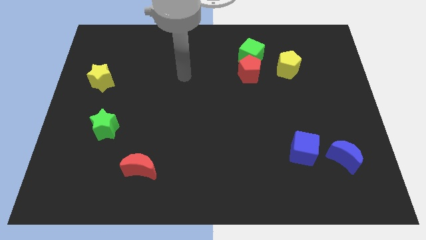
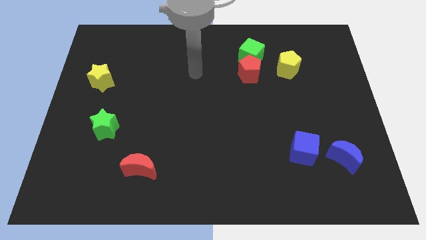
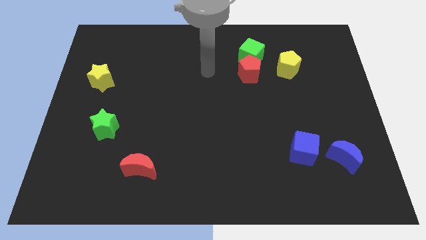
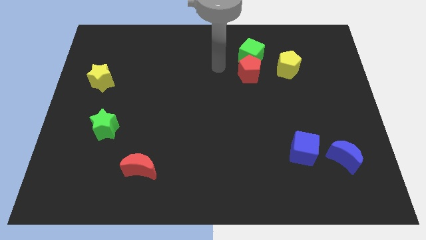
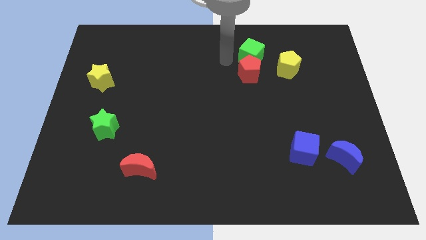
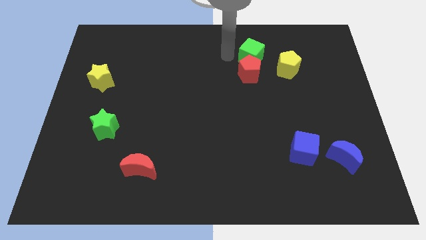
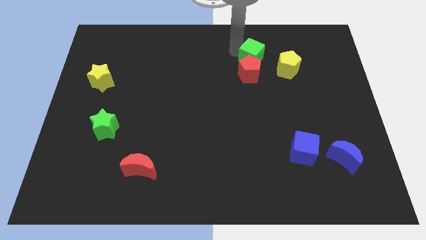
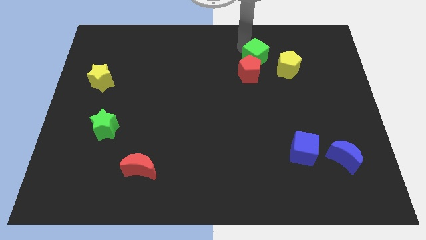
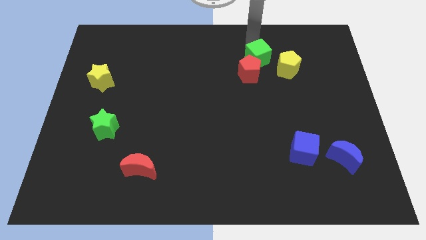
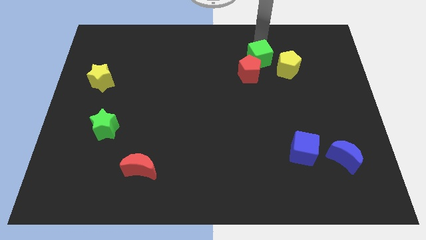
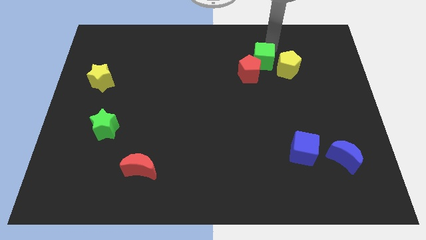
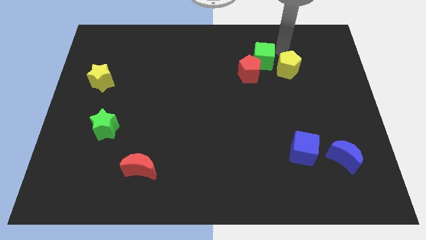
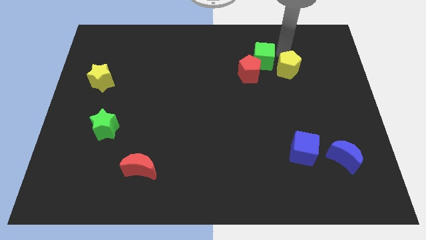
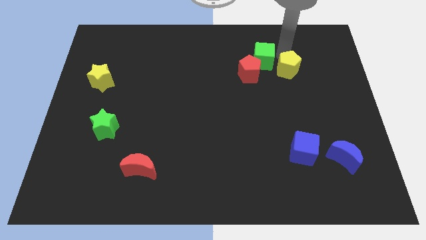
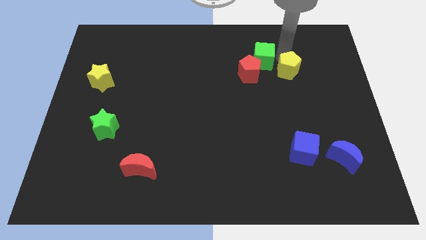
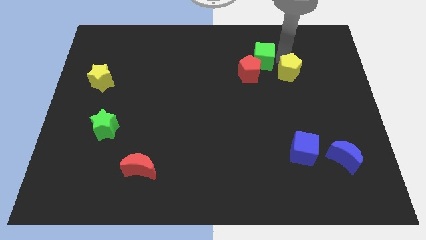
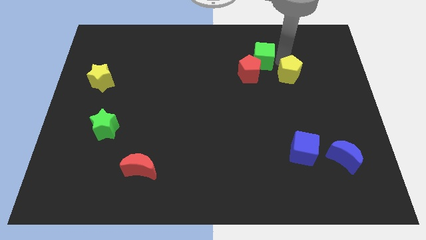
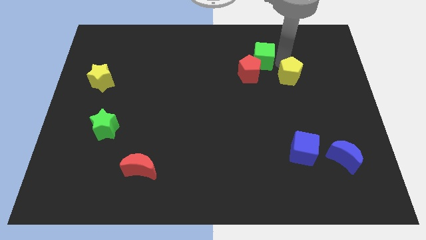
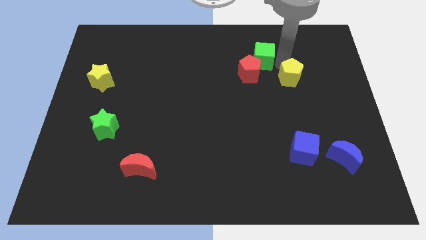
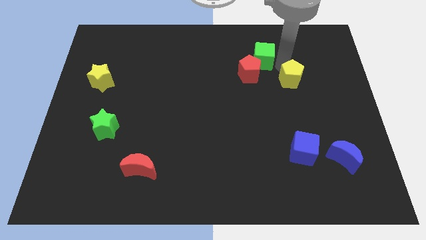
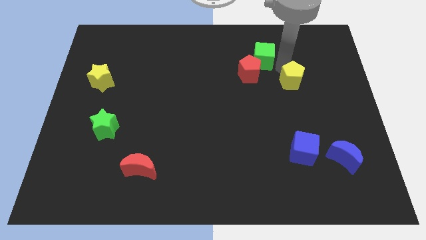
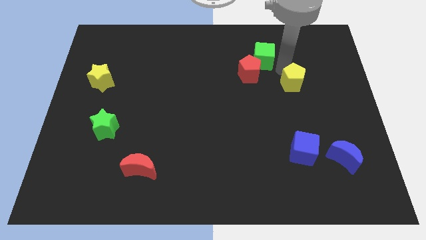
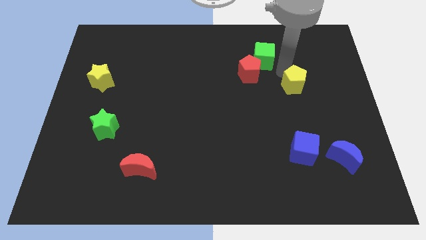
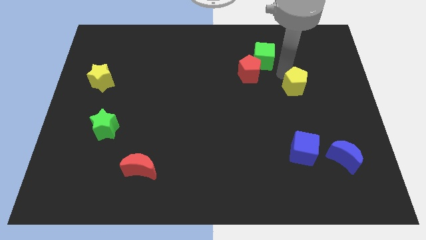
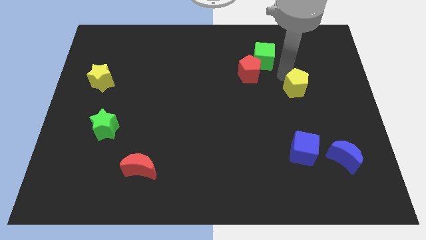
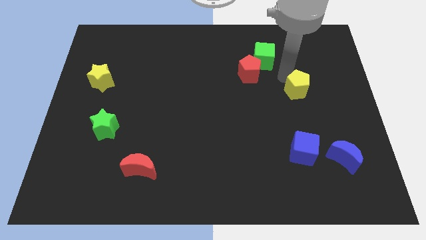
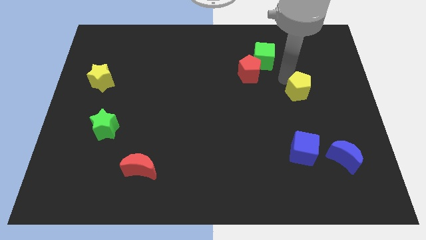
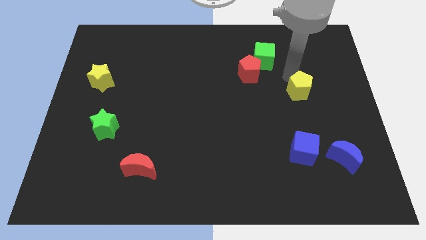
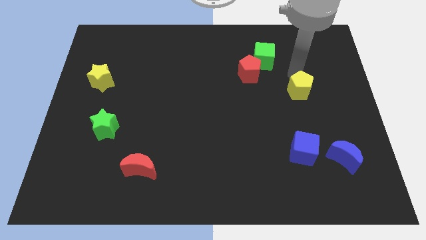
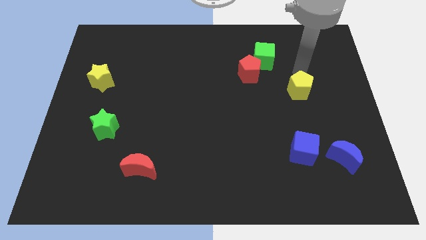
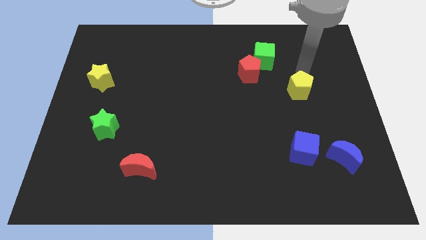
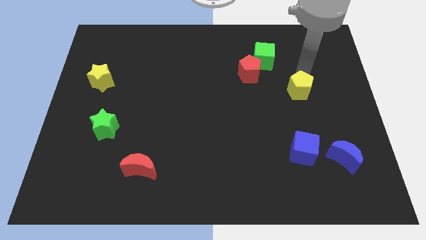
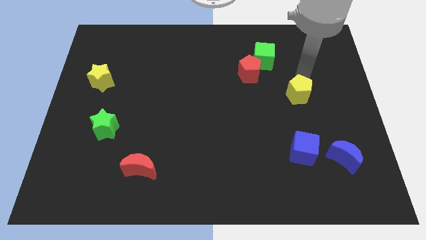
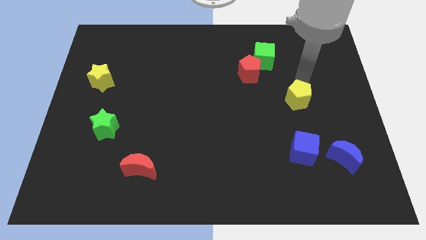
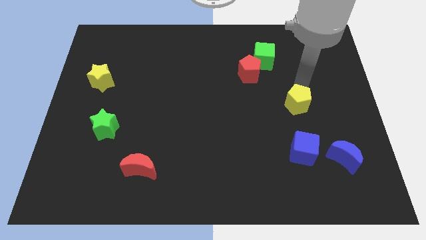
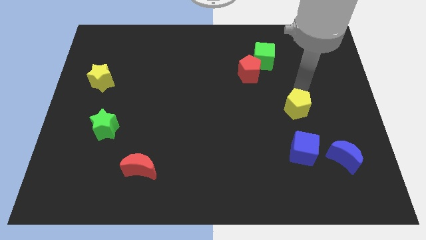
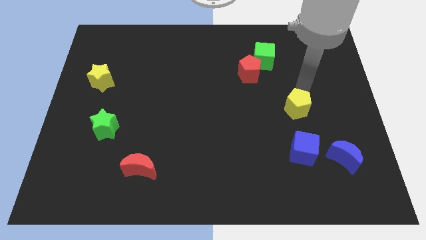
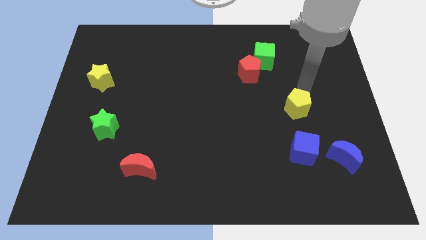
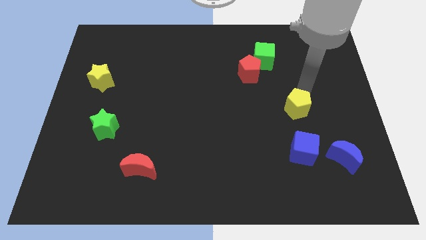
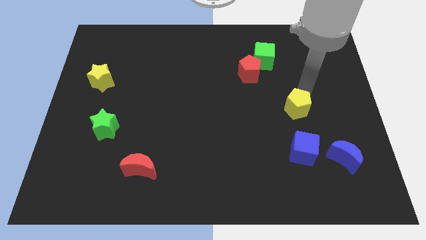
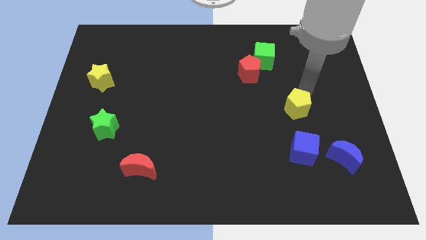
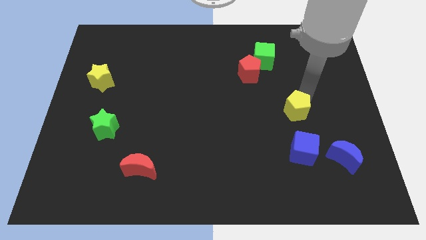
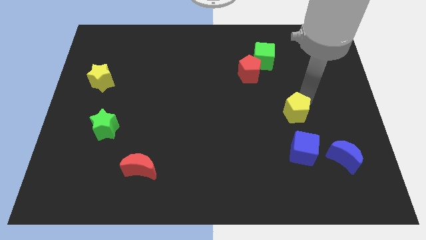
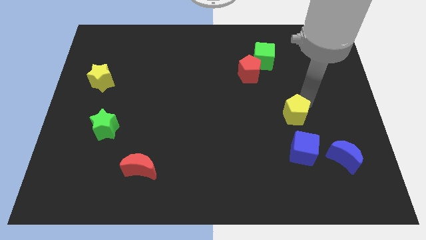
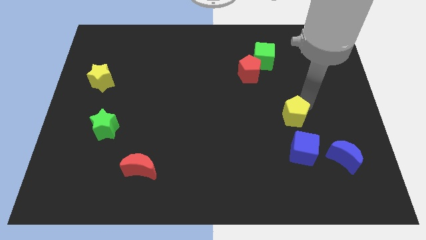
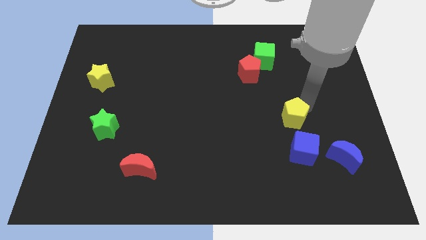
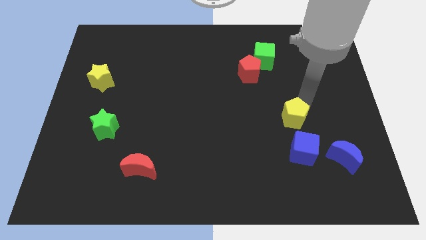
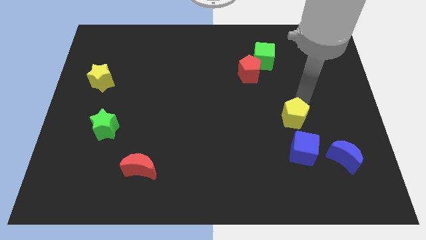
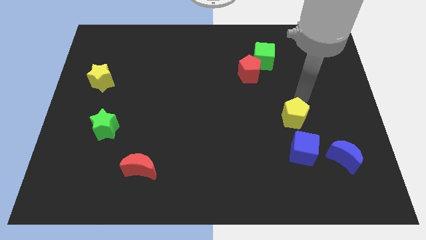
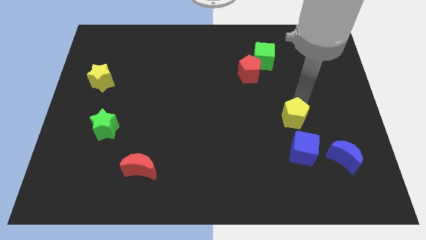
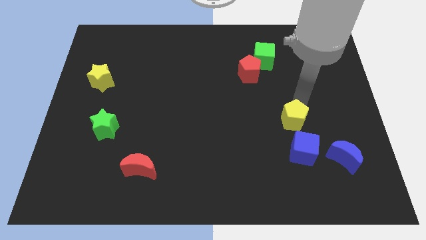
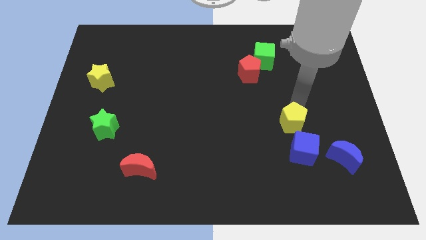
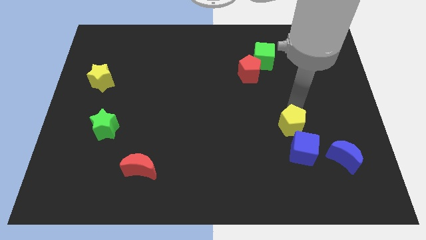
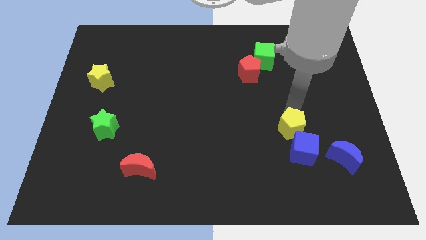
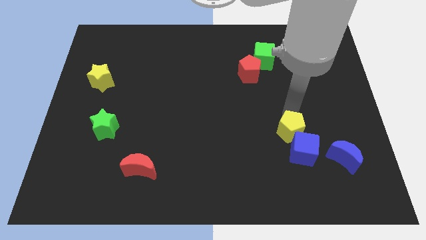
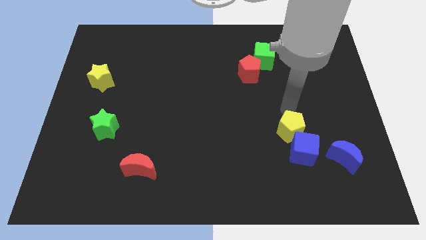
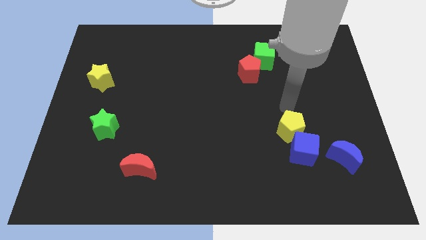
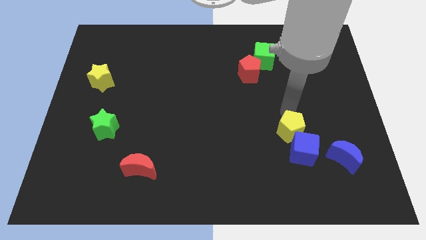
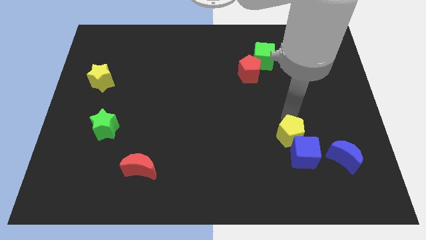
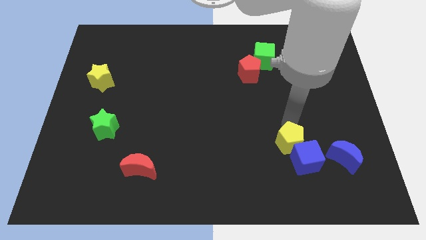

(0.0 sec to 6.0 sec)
move the yellow pentagon left of the blue moon

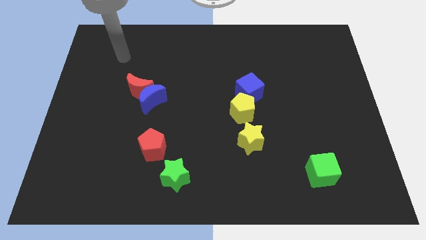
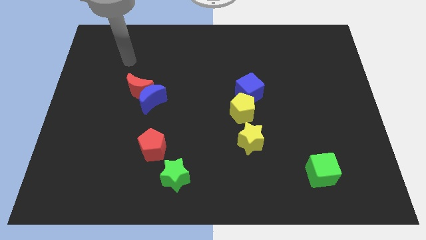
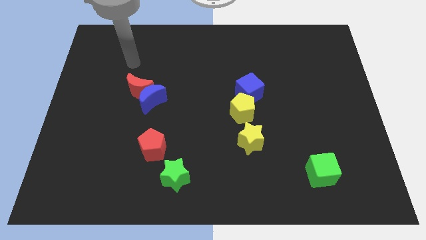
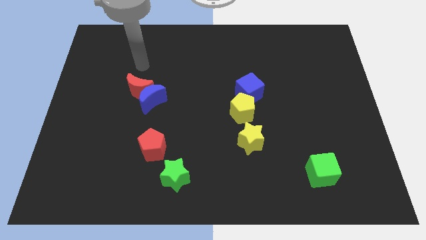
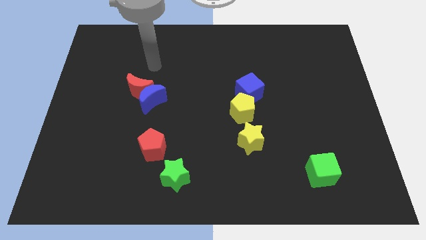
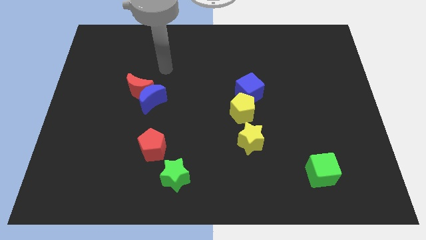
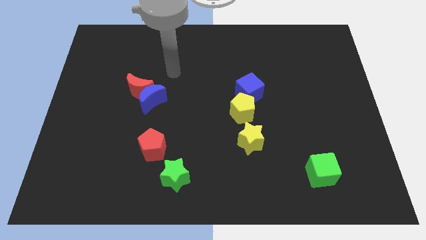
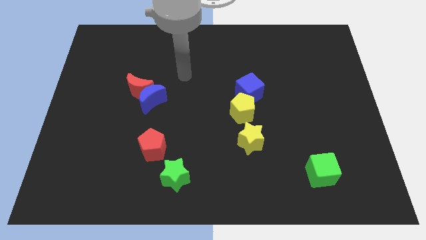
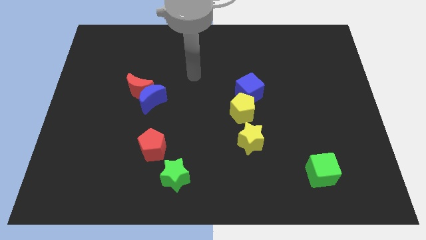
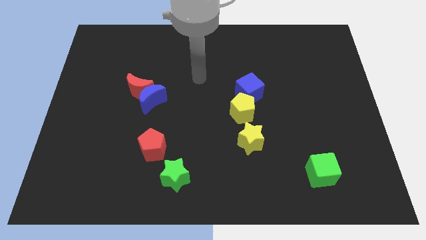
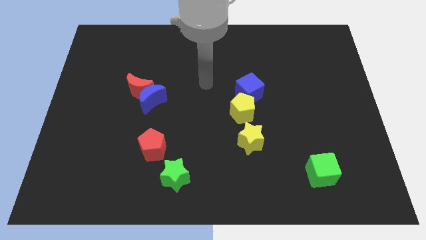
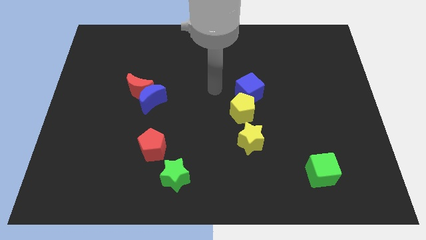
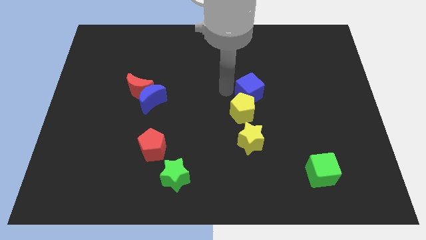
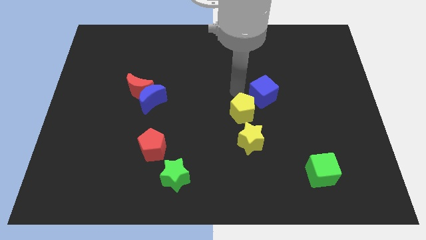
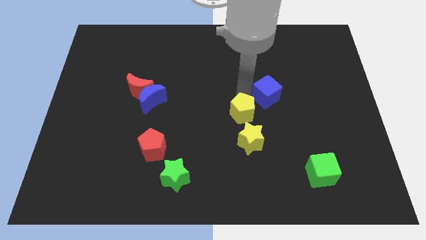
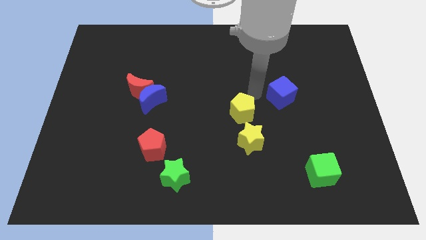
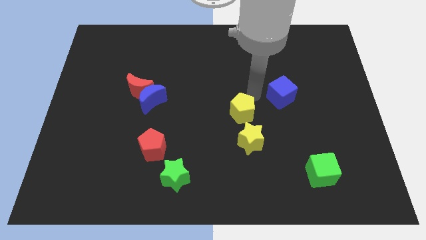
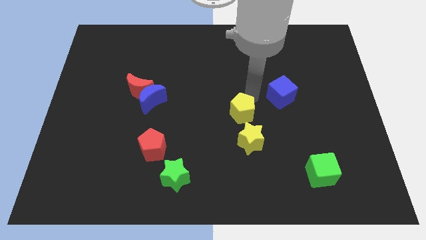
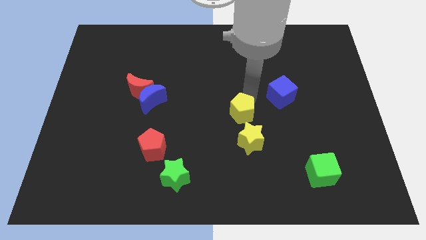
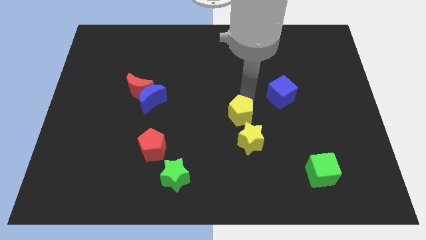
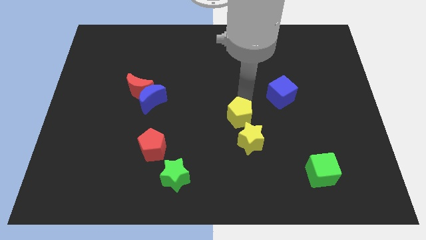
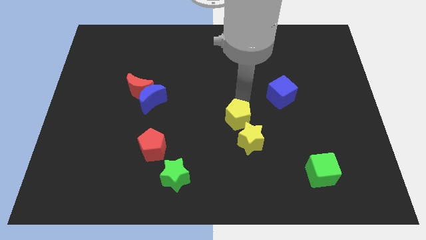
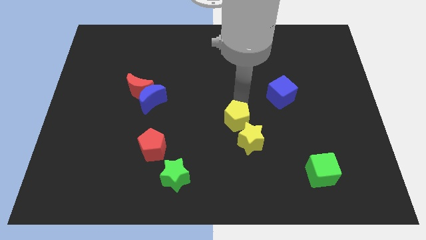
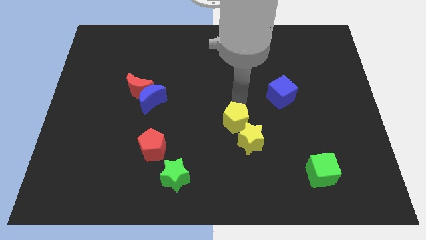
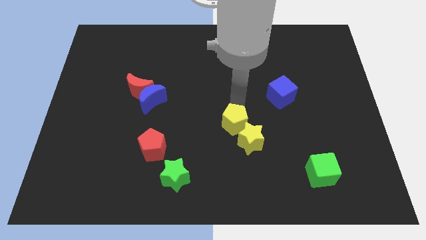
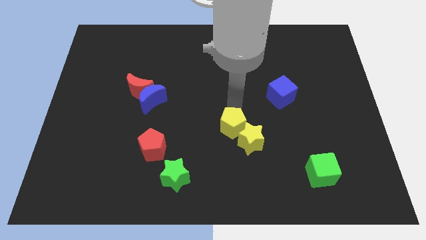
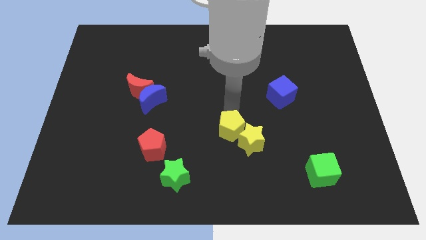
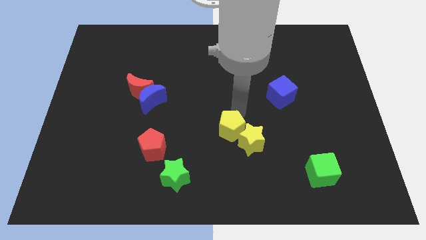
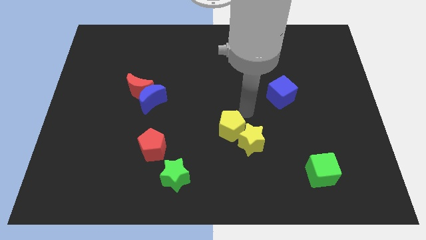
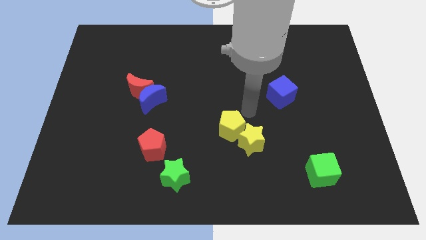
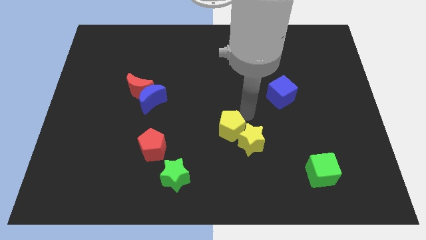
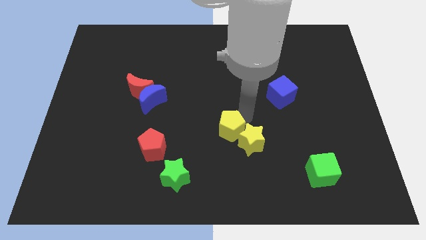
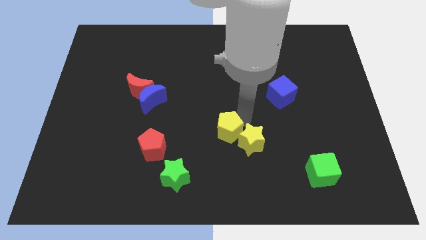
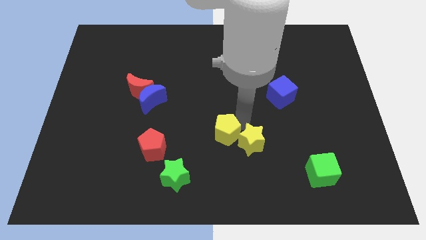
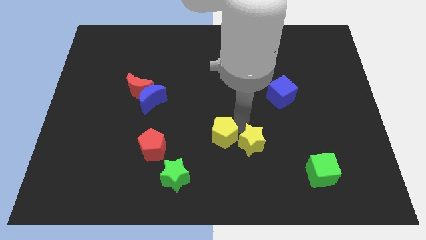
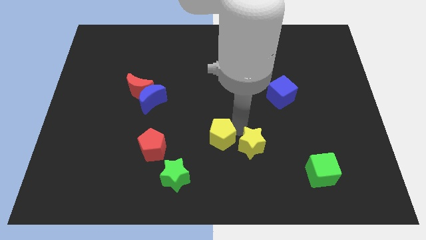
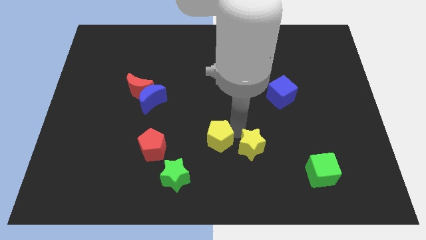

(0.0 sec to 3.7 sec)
move the yellow pentagon to the top right of the green star
